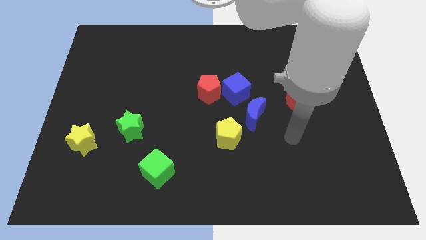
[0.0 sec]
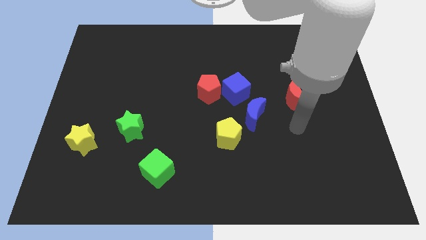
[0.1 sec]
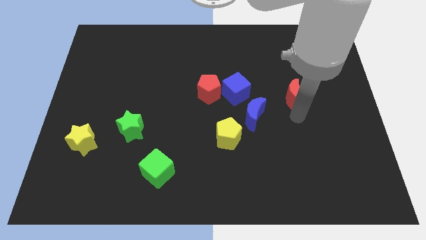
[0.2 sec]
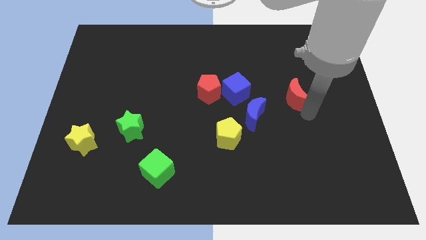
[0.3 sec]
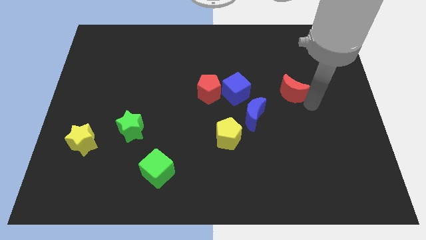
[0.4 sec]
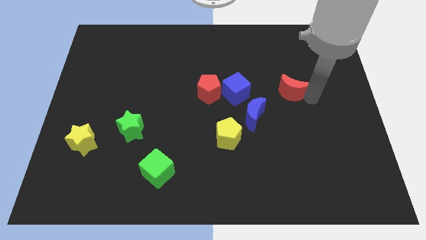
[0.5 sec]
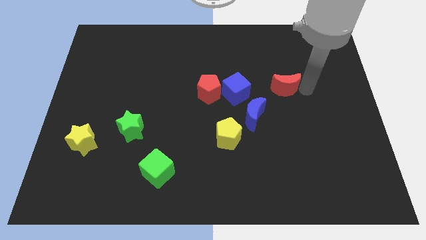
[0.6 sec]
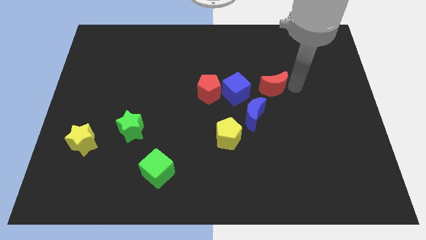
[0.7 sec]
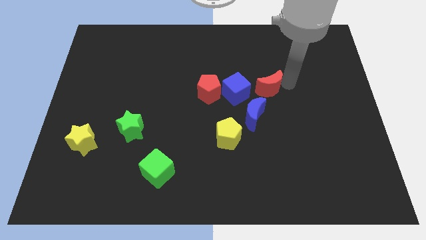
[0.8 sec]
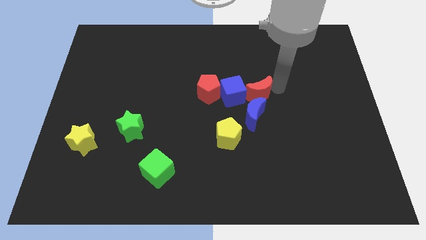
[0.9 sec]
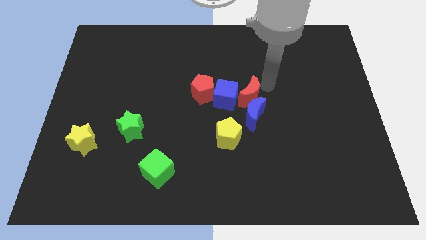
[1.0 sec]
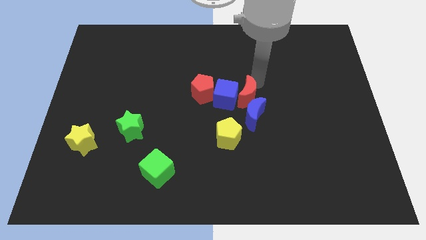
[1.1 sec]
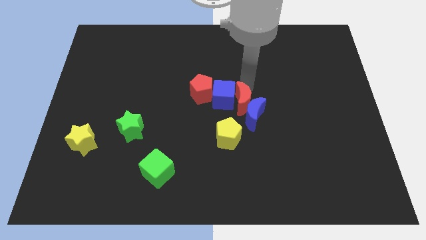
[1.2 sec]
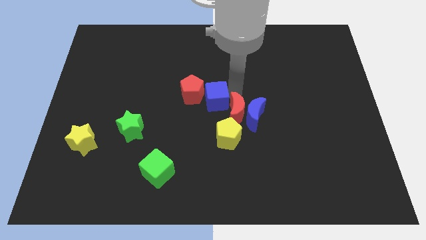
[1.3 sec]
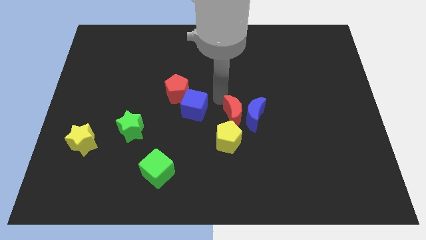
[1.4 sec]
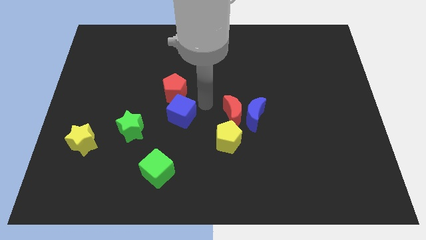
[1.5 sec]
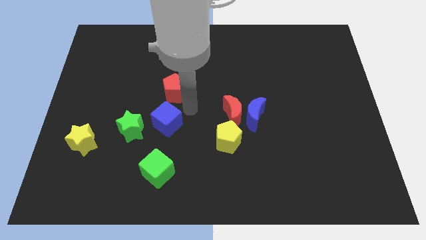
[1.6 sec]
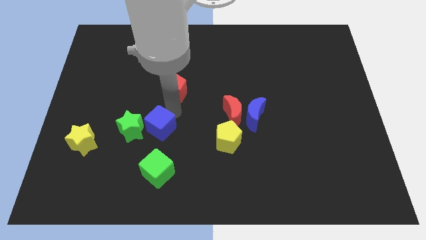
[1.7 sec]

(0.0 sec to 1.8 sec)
pull the red pentagon apart from the blue cube

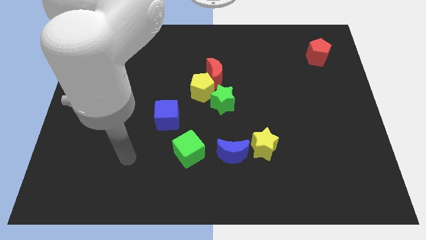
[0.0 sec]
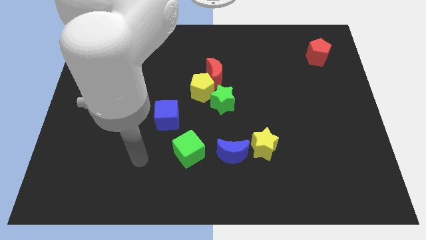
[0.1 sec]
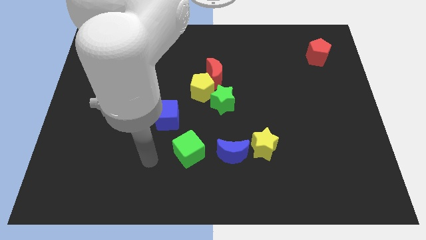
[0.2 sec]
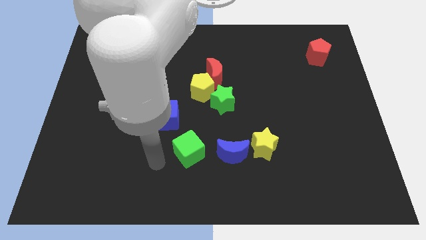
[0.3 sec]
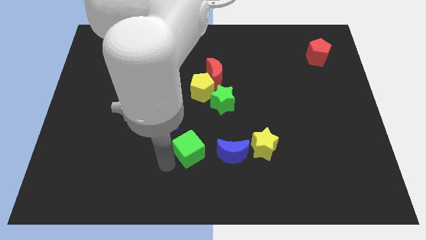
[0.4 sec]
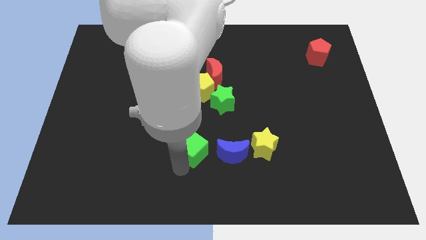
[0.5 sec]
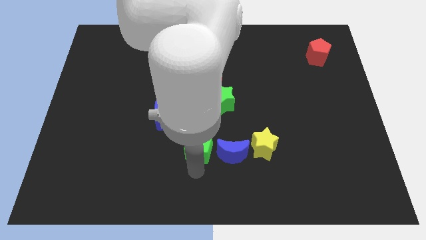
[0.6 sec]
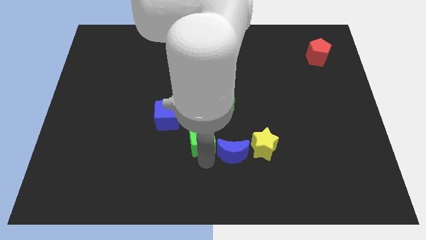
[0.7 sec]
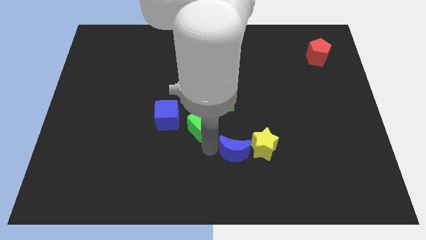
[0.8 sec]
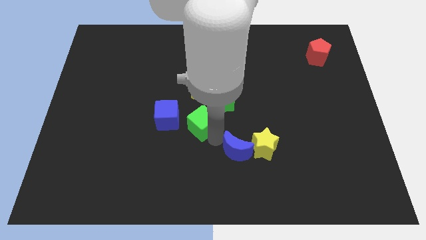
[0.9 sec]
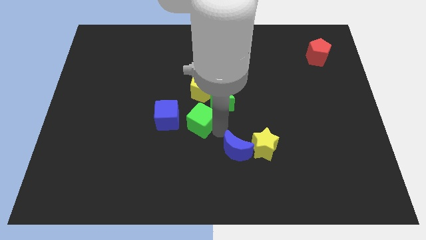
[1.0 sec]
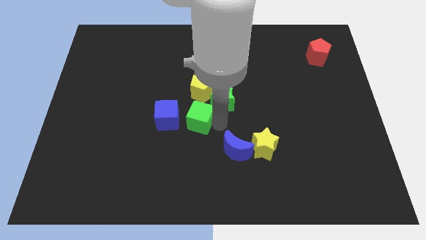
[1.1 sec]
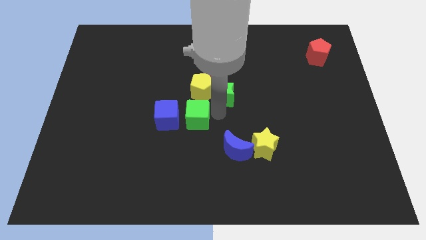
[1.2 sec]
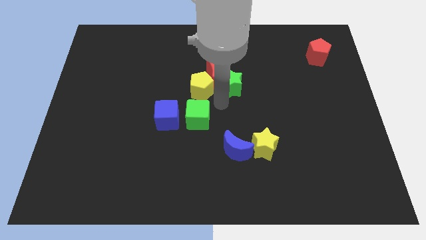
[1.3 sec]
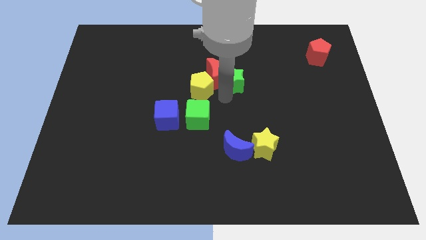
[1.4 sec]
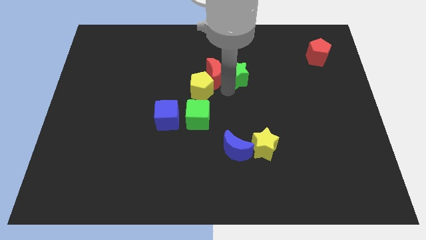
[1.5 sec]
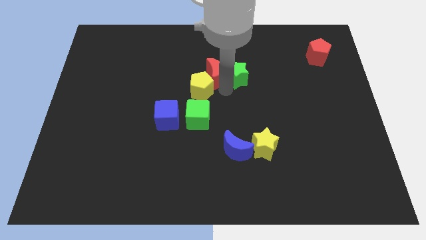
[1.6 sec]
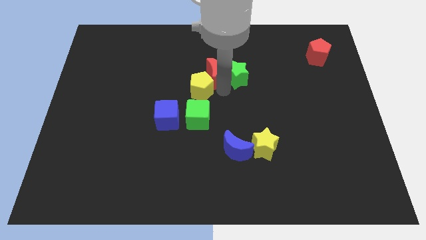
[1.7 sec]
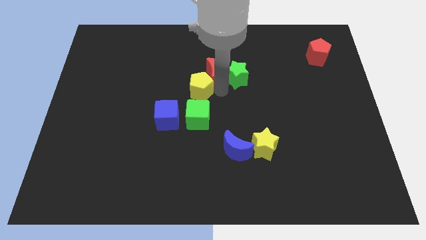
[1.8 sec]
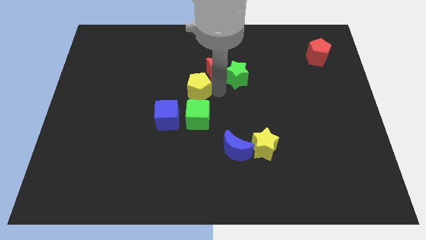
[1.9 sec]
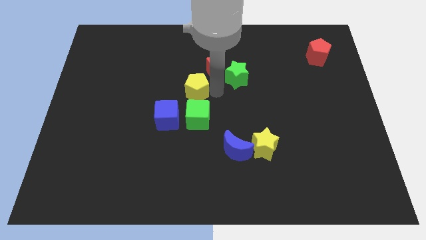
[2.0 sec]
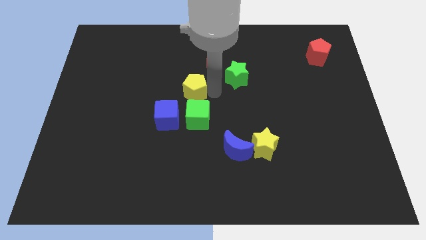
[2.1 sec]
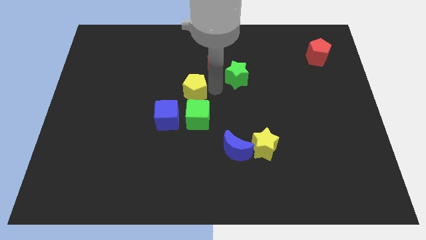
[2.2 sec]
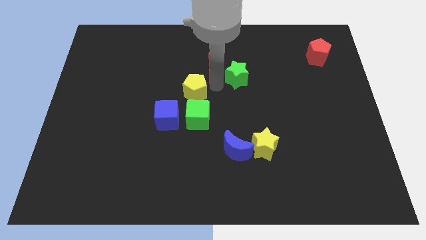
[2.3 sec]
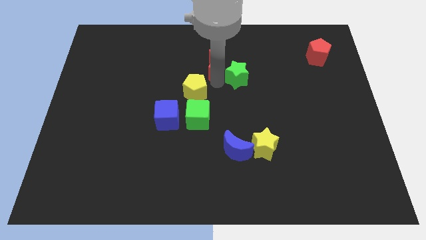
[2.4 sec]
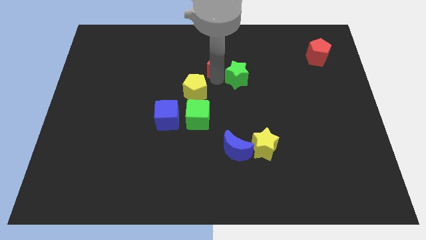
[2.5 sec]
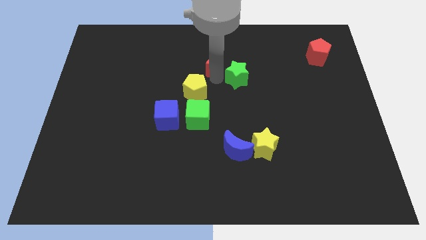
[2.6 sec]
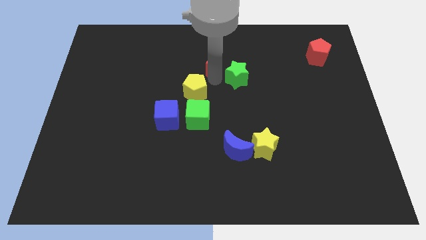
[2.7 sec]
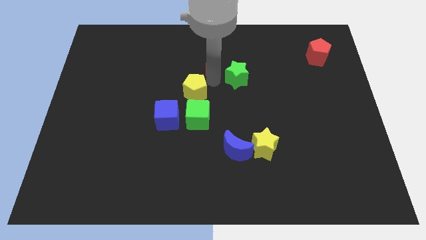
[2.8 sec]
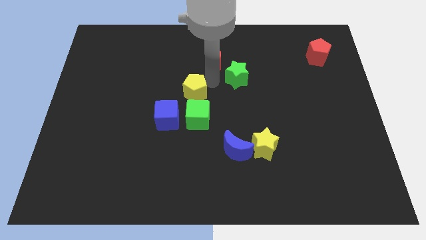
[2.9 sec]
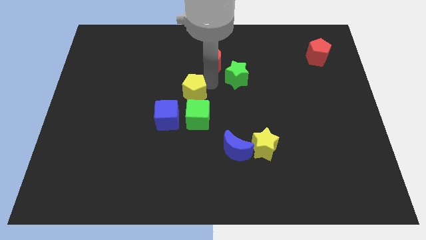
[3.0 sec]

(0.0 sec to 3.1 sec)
pull the yellow pentagon apart from the red moon and green star

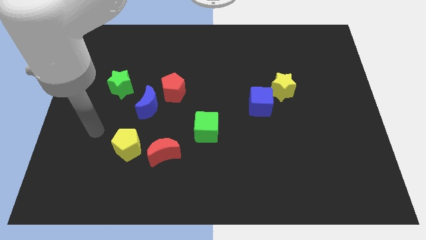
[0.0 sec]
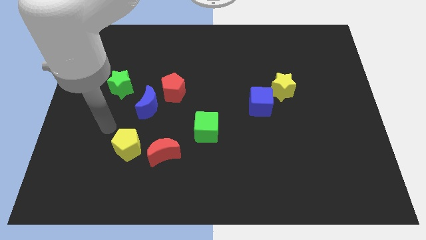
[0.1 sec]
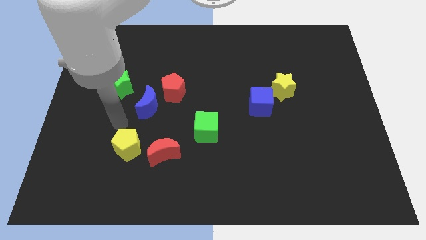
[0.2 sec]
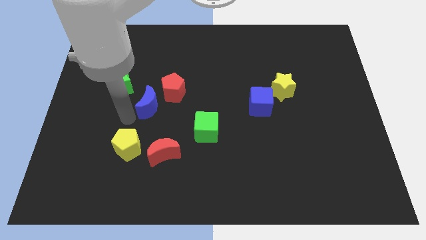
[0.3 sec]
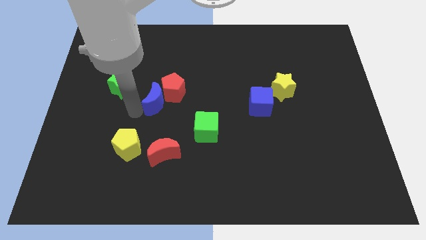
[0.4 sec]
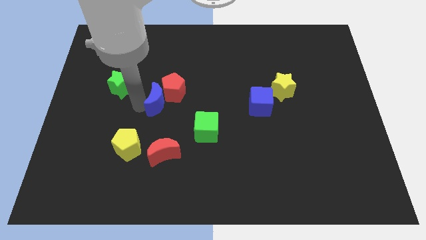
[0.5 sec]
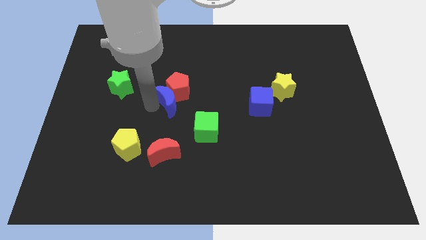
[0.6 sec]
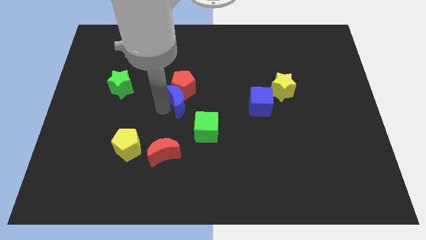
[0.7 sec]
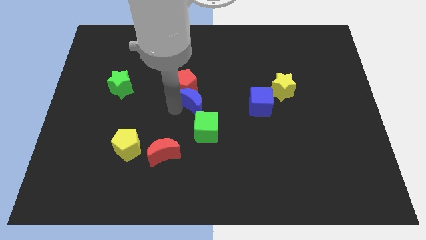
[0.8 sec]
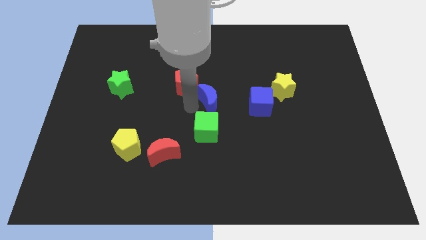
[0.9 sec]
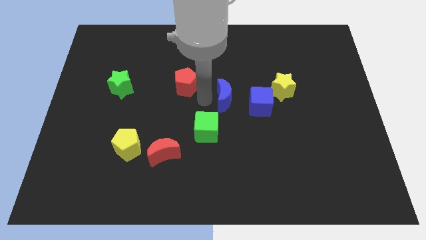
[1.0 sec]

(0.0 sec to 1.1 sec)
pull the red pentagon apart from the blue moon

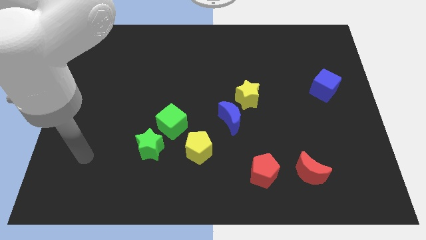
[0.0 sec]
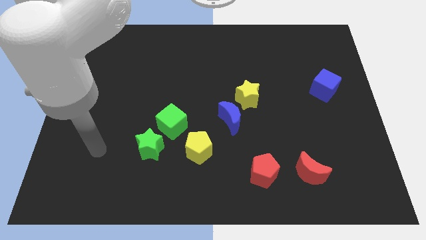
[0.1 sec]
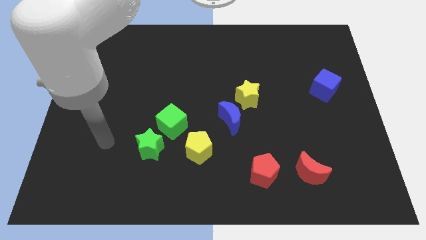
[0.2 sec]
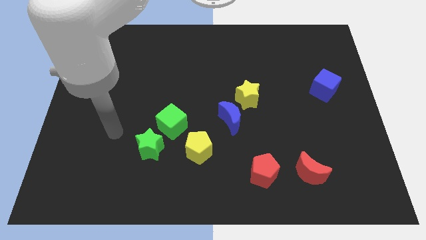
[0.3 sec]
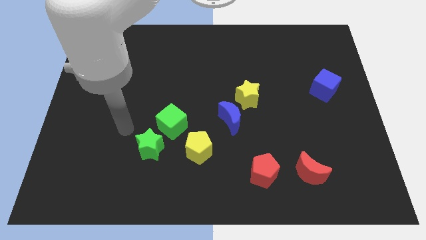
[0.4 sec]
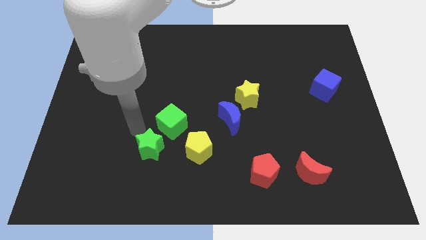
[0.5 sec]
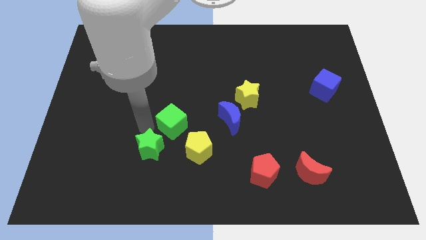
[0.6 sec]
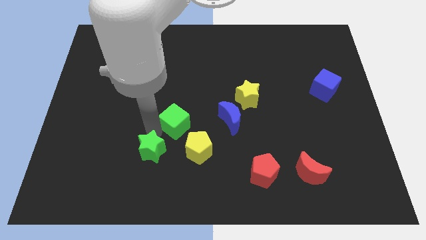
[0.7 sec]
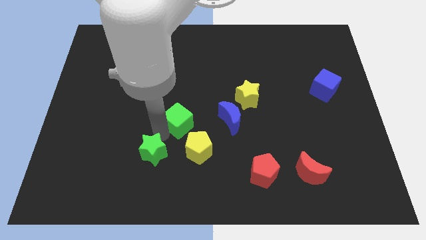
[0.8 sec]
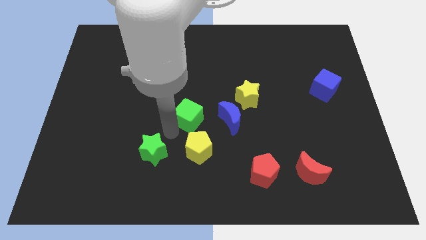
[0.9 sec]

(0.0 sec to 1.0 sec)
pull the green star apart from the green cube

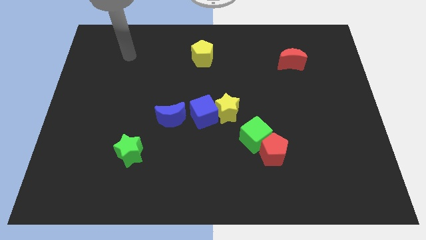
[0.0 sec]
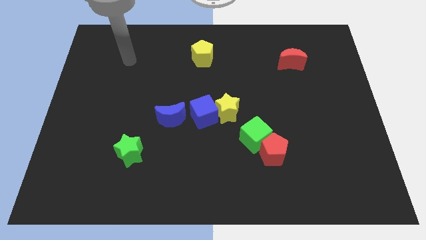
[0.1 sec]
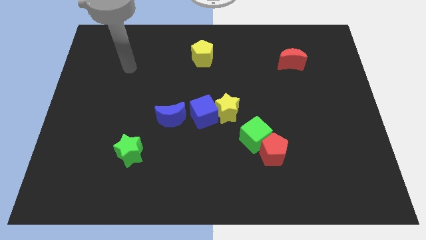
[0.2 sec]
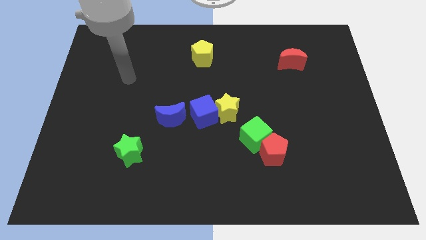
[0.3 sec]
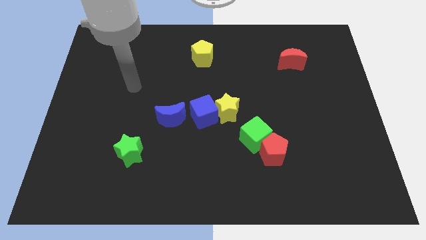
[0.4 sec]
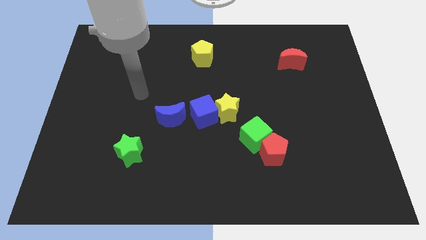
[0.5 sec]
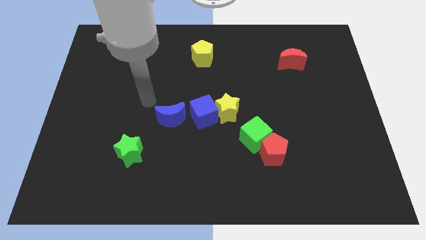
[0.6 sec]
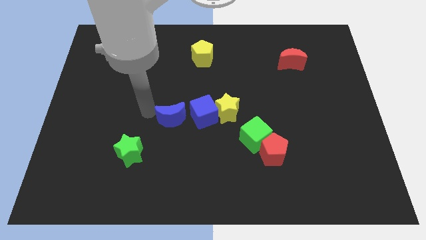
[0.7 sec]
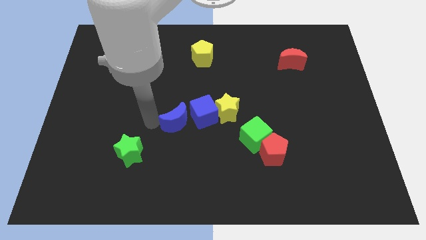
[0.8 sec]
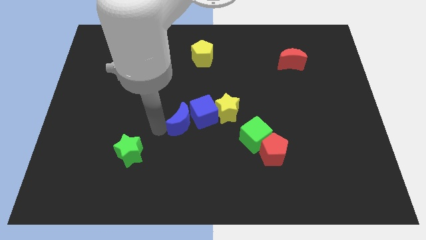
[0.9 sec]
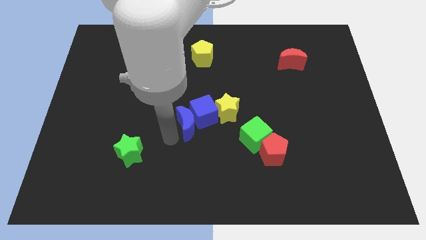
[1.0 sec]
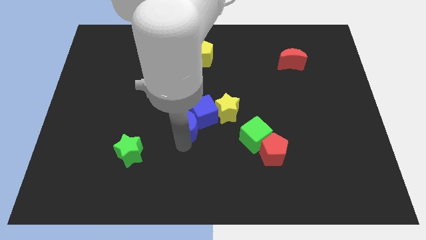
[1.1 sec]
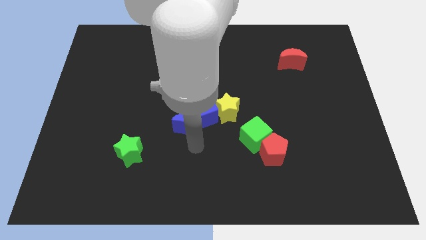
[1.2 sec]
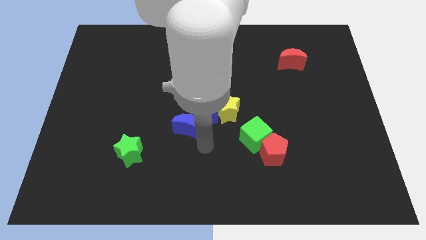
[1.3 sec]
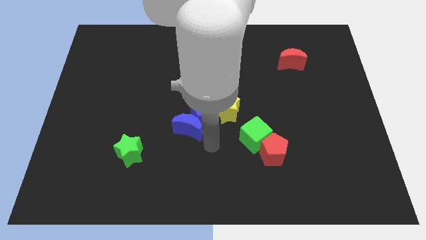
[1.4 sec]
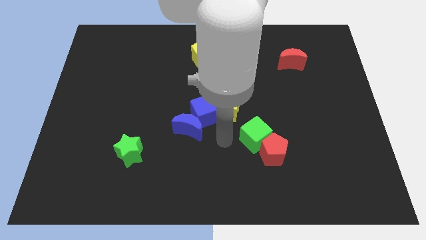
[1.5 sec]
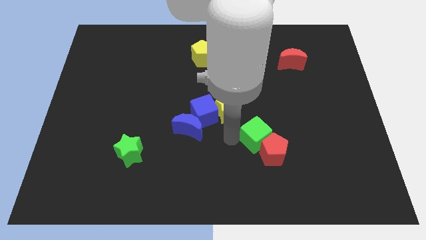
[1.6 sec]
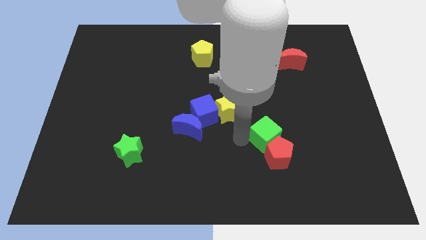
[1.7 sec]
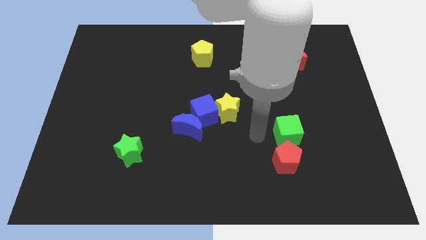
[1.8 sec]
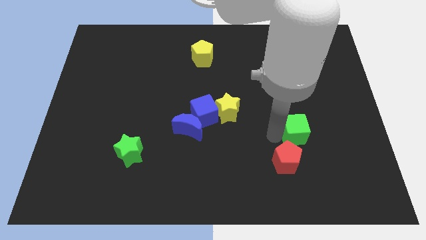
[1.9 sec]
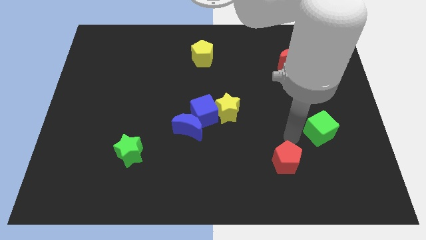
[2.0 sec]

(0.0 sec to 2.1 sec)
pull the red pentagon apart from the green cube

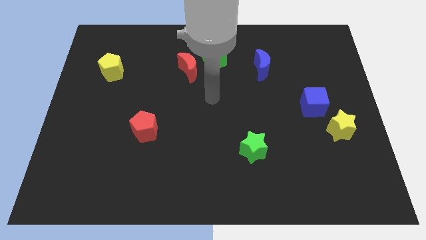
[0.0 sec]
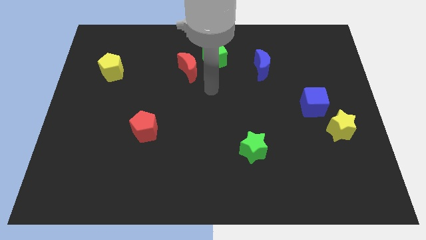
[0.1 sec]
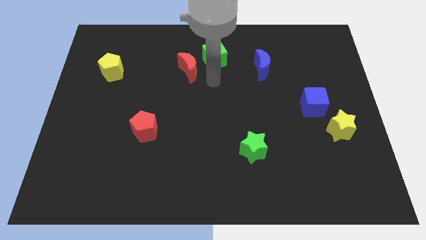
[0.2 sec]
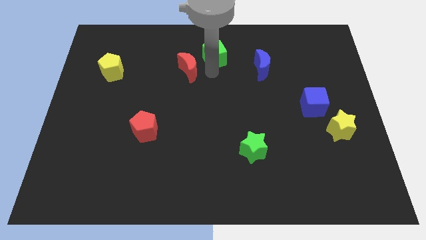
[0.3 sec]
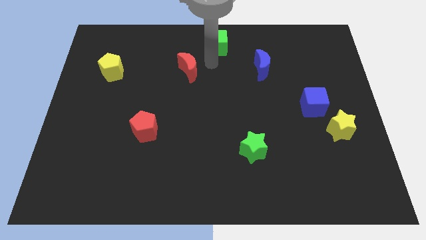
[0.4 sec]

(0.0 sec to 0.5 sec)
separate the red moon from the green cube
